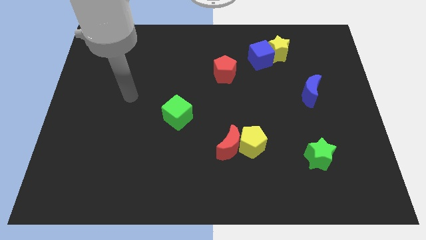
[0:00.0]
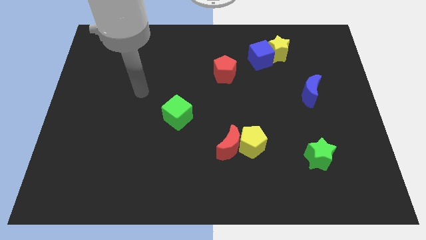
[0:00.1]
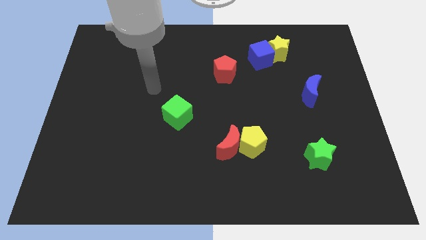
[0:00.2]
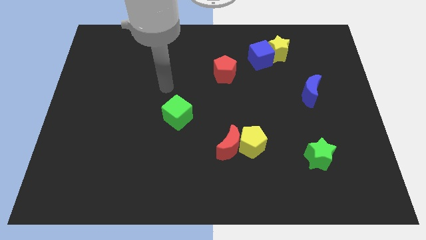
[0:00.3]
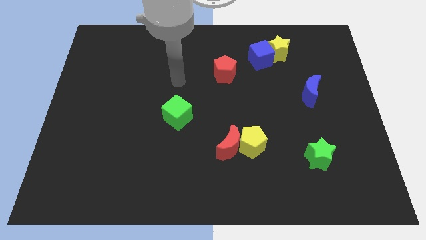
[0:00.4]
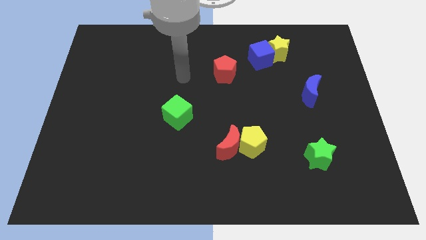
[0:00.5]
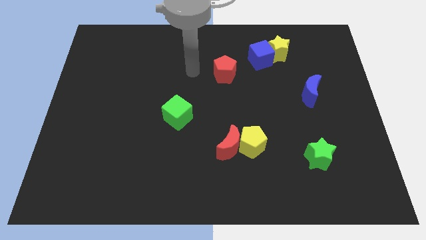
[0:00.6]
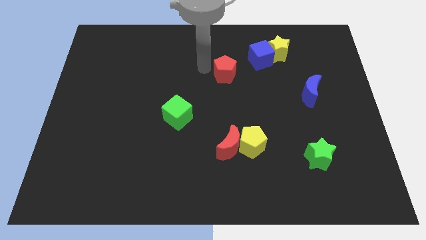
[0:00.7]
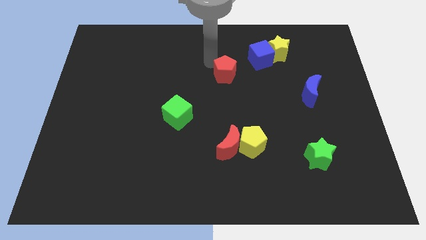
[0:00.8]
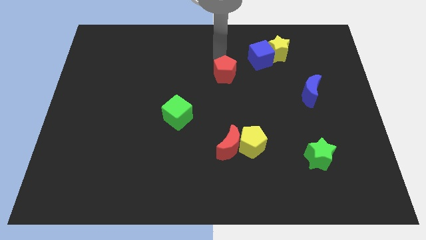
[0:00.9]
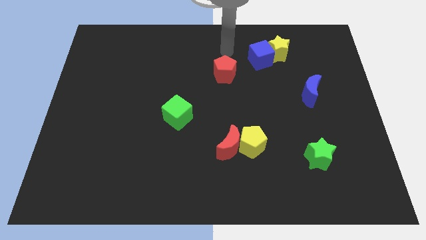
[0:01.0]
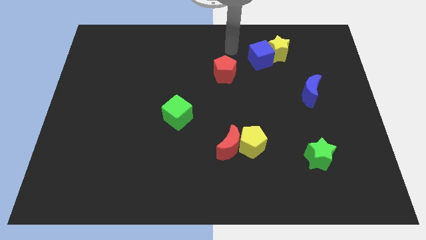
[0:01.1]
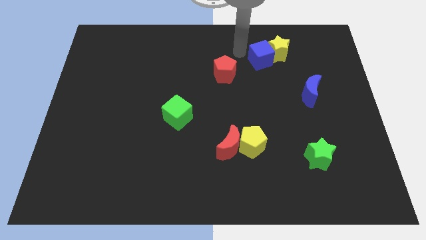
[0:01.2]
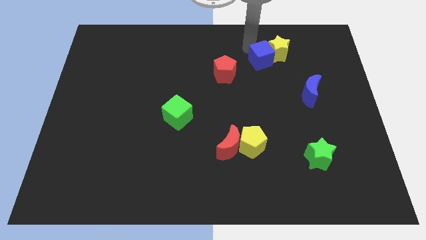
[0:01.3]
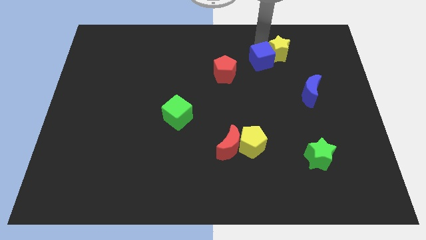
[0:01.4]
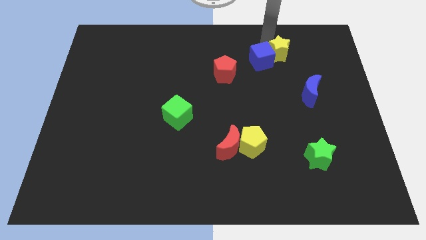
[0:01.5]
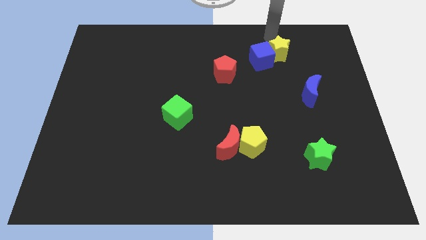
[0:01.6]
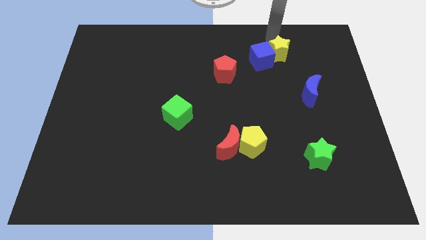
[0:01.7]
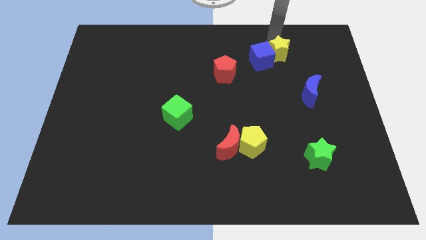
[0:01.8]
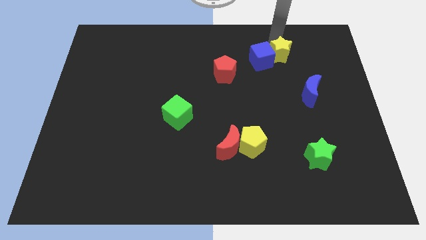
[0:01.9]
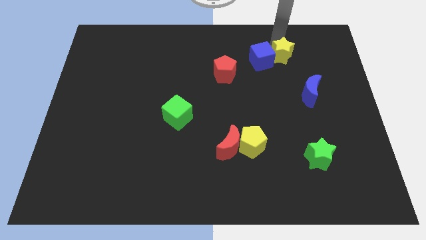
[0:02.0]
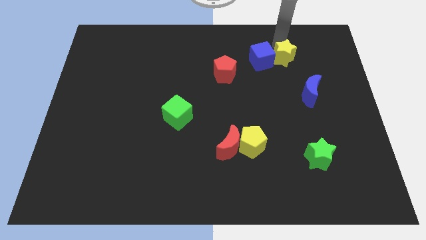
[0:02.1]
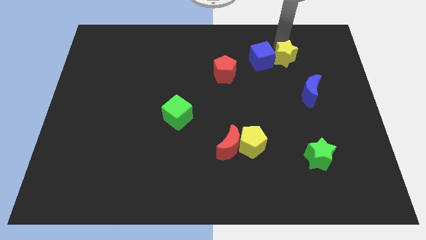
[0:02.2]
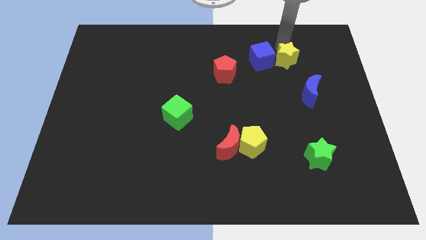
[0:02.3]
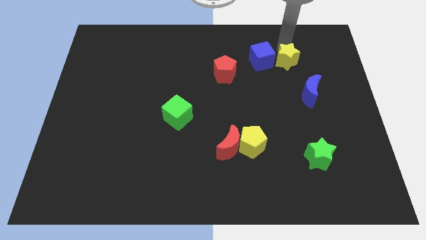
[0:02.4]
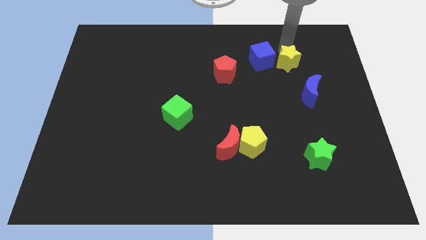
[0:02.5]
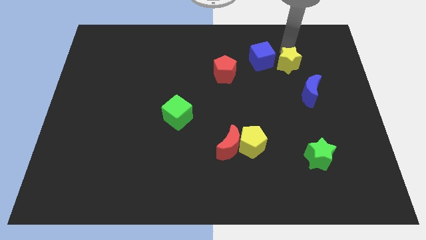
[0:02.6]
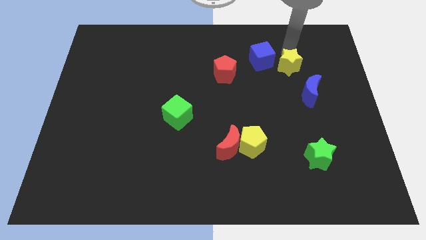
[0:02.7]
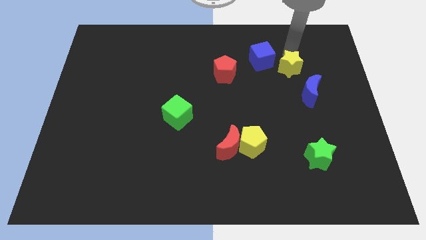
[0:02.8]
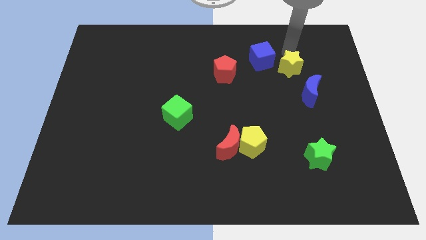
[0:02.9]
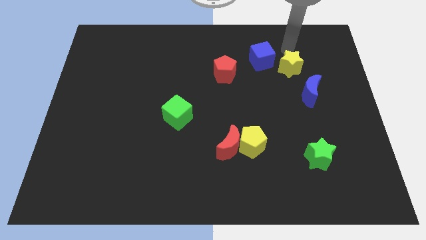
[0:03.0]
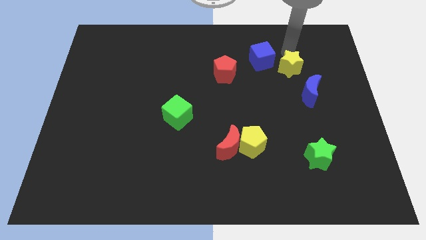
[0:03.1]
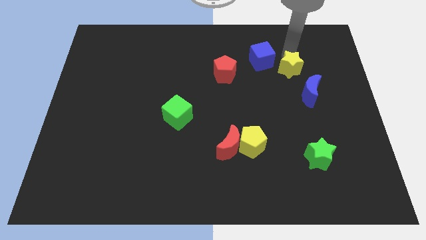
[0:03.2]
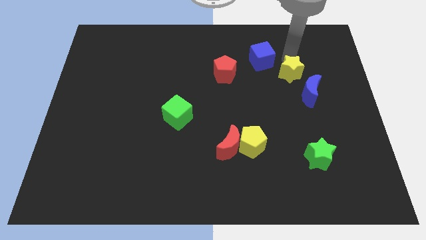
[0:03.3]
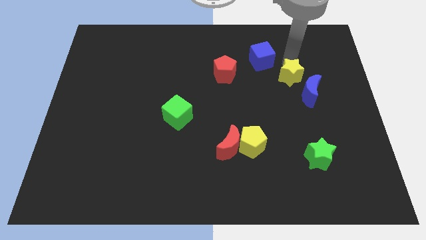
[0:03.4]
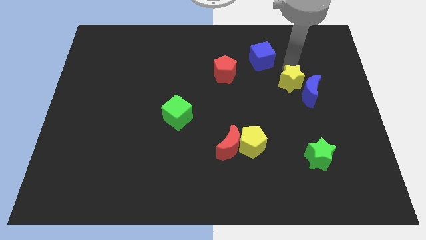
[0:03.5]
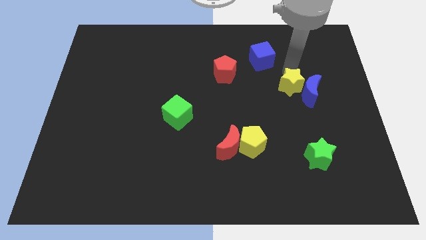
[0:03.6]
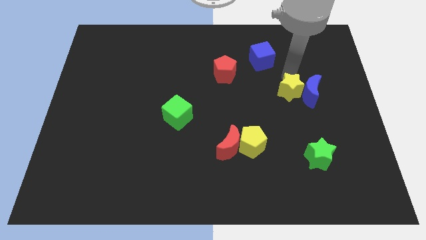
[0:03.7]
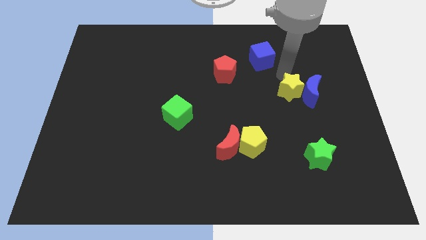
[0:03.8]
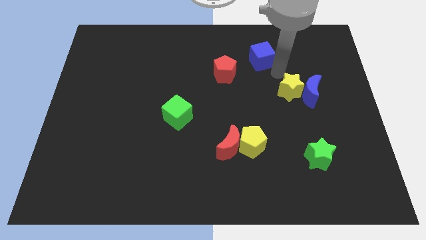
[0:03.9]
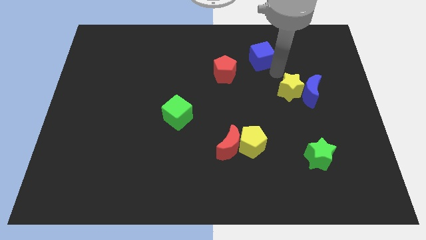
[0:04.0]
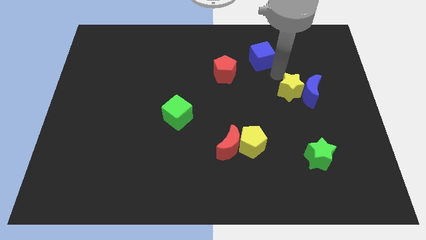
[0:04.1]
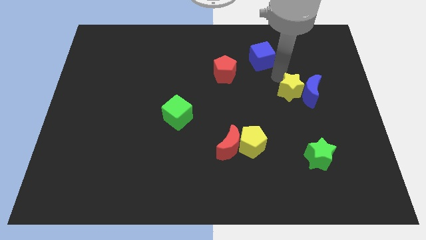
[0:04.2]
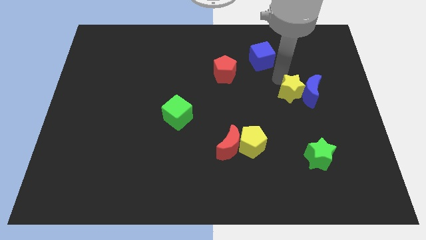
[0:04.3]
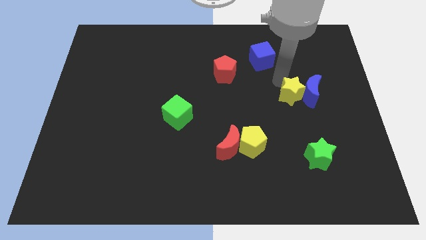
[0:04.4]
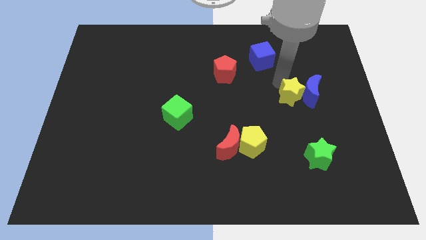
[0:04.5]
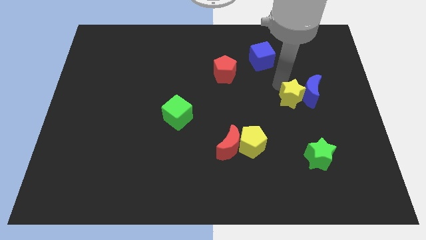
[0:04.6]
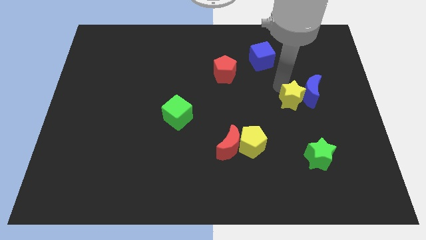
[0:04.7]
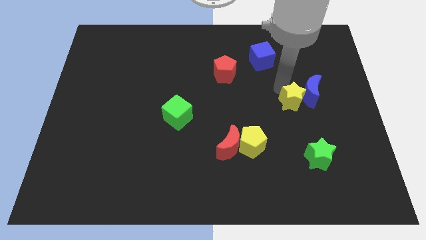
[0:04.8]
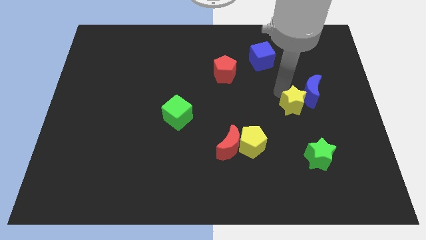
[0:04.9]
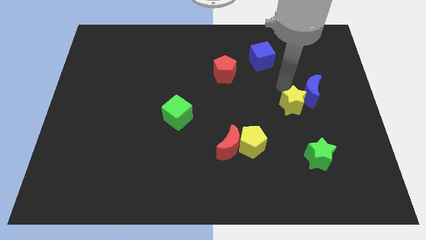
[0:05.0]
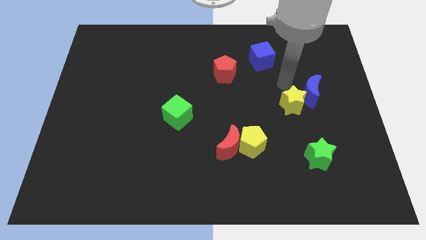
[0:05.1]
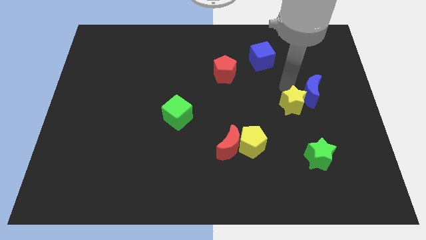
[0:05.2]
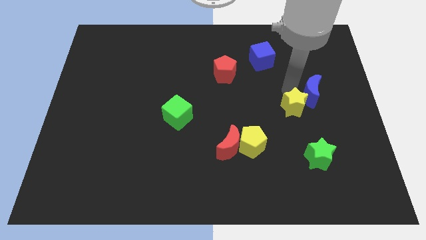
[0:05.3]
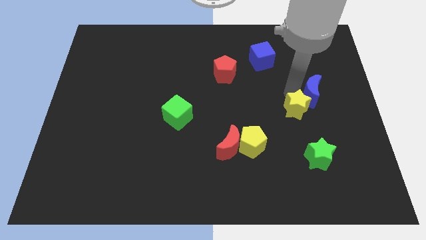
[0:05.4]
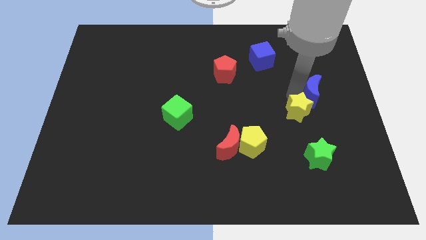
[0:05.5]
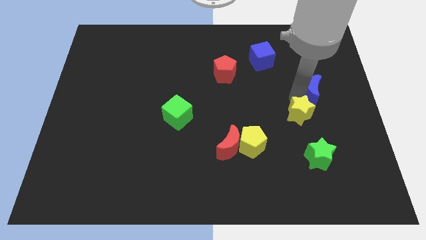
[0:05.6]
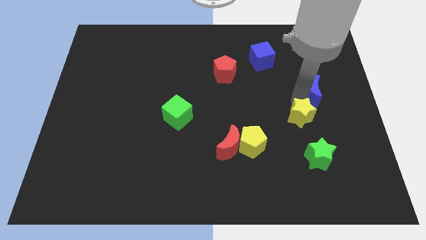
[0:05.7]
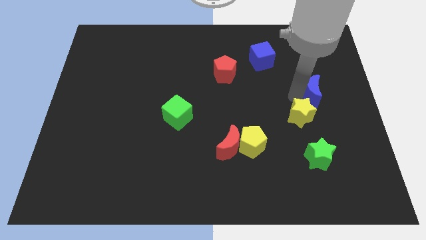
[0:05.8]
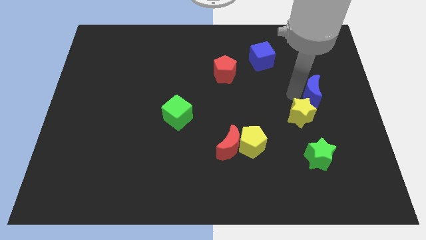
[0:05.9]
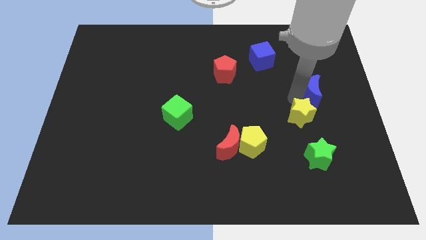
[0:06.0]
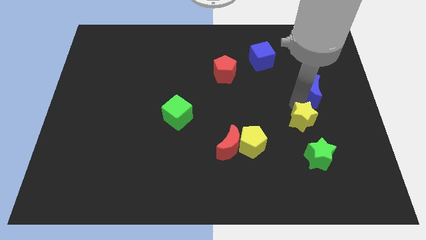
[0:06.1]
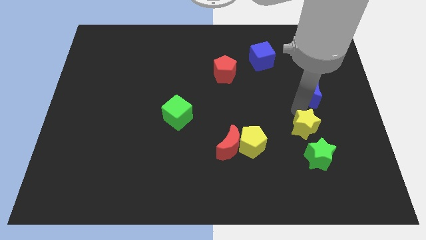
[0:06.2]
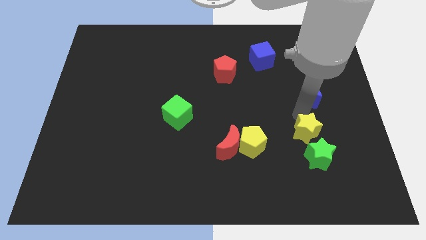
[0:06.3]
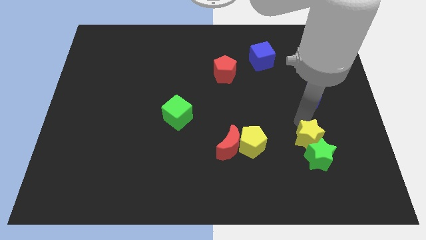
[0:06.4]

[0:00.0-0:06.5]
put the yellow star towards the green star
